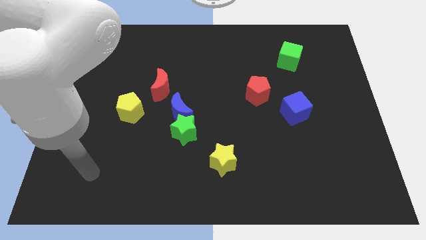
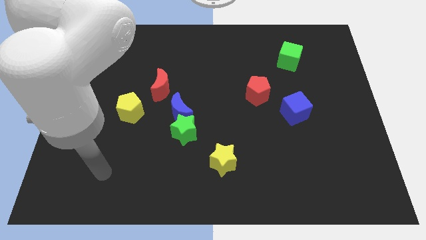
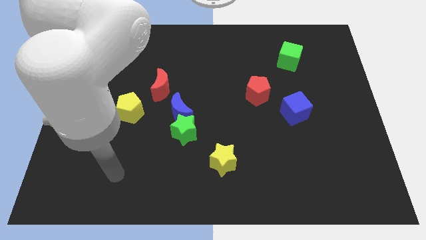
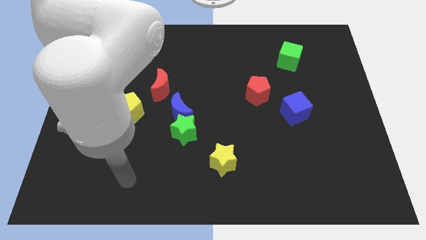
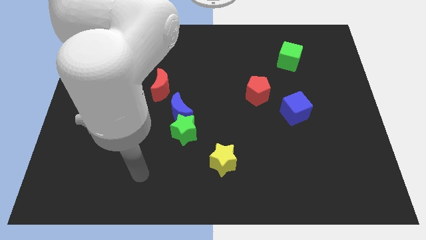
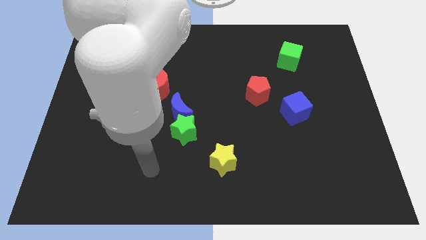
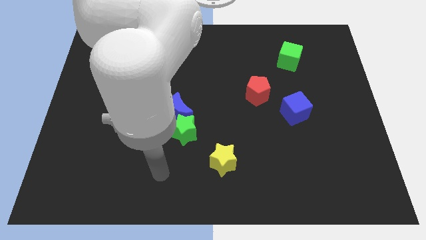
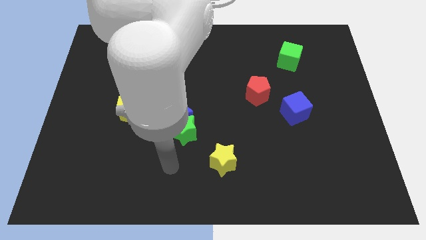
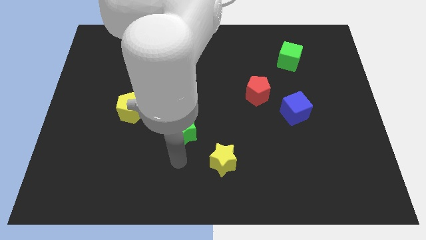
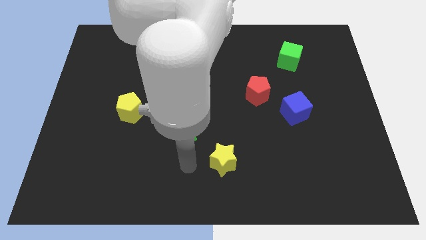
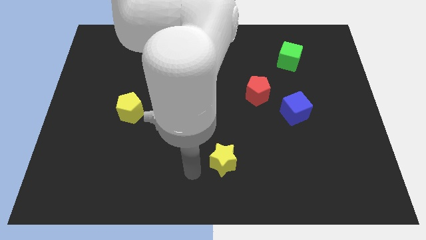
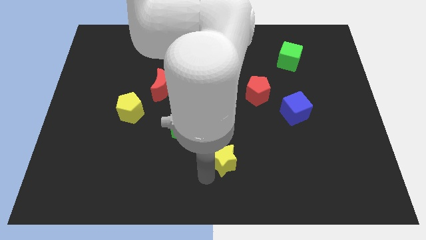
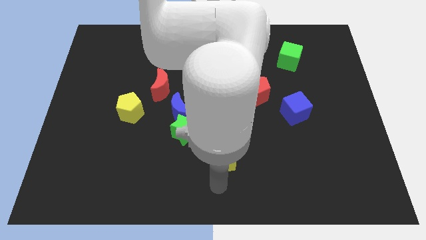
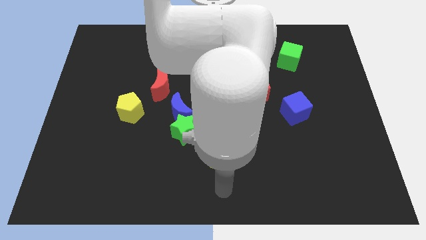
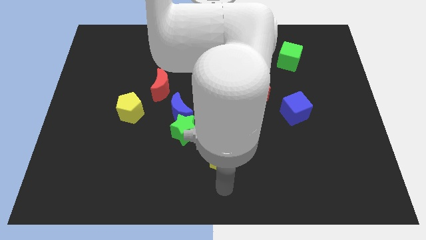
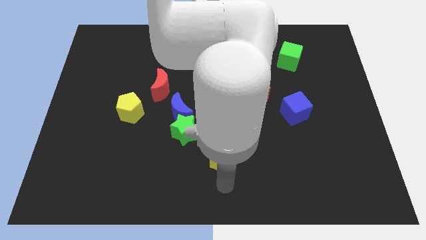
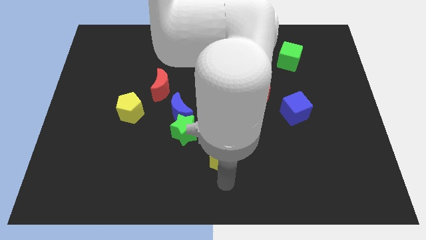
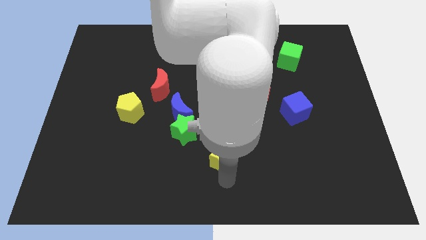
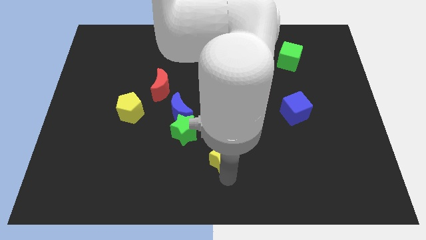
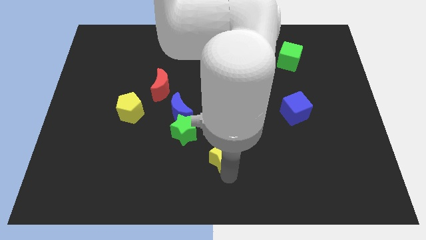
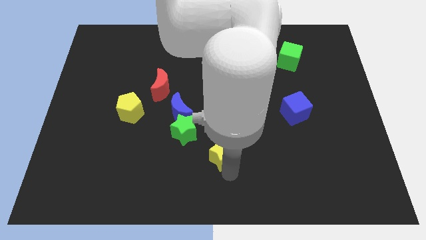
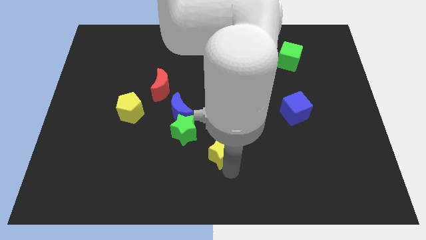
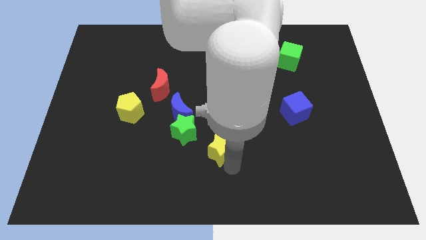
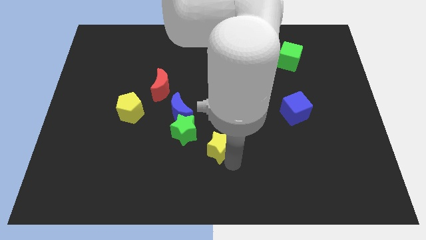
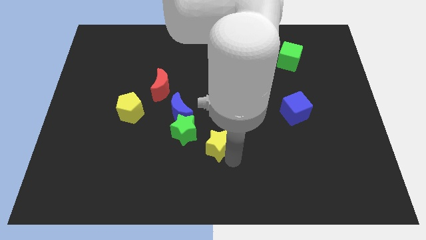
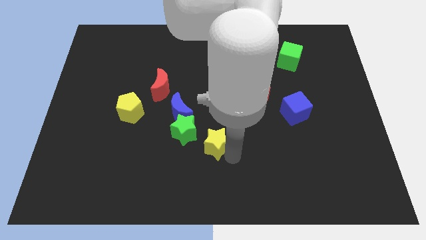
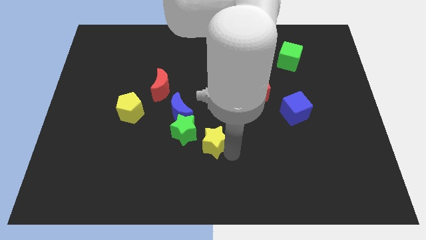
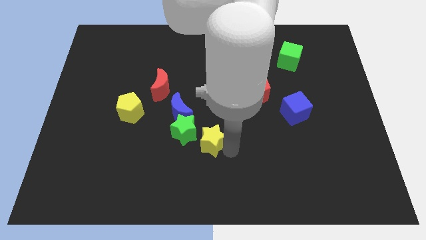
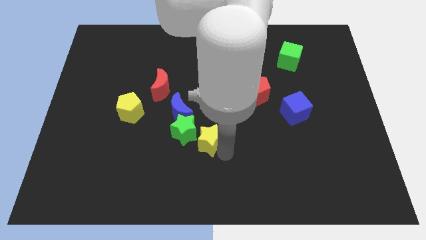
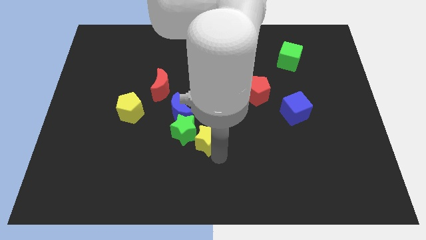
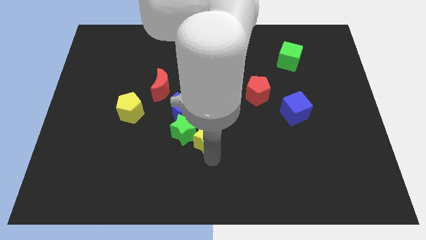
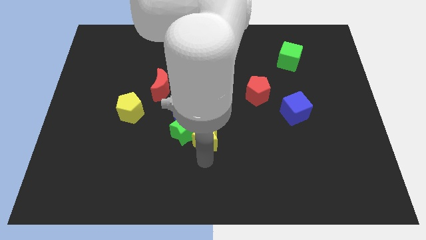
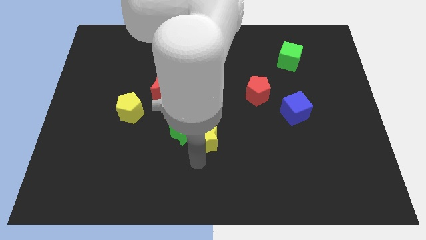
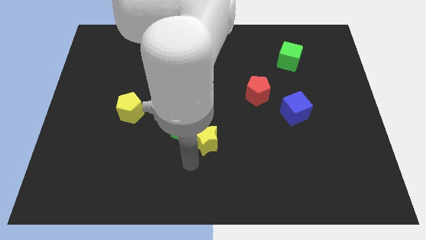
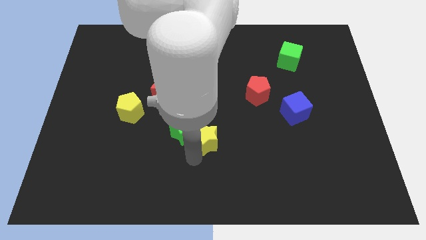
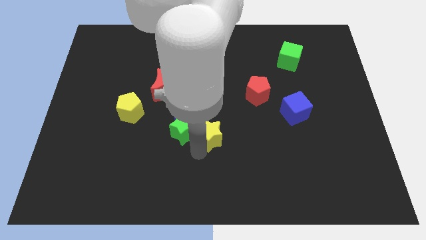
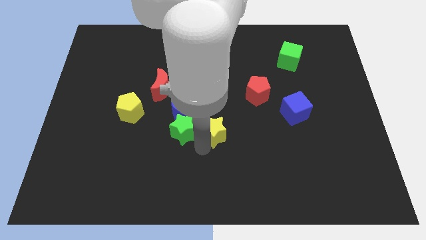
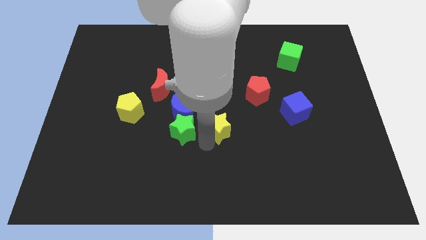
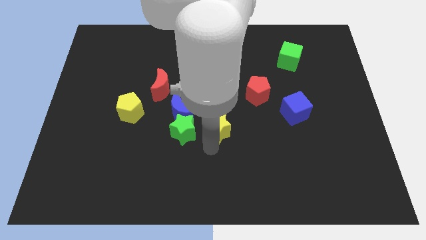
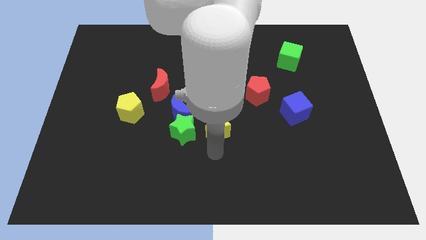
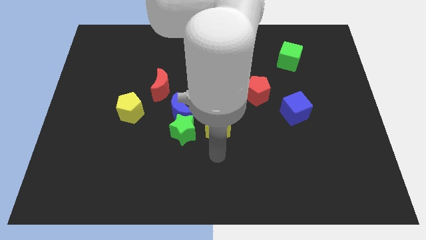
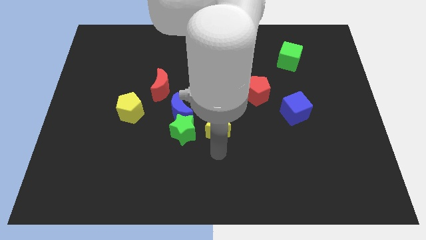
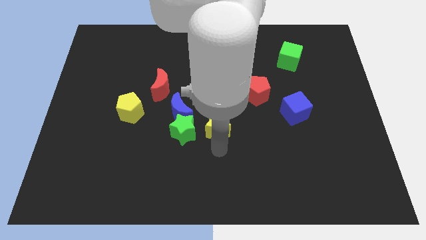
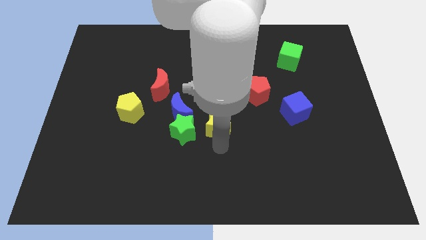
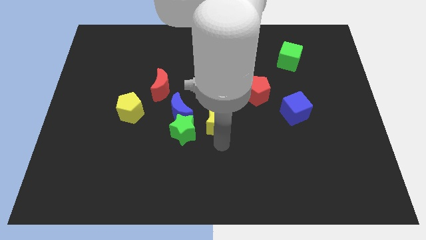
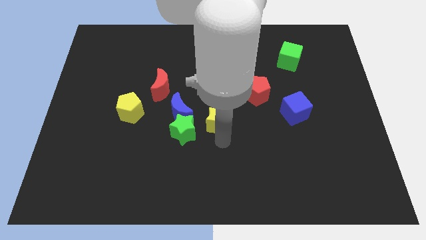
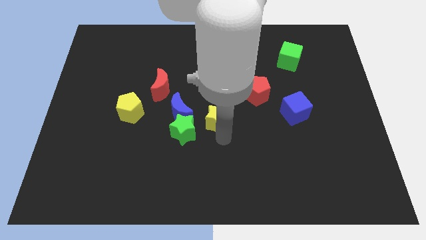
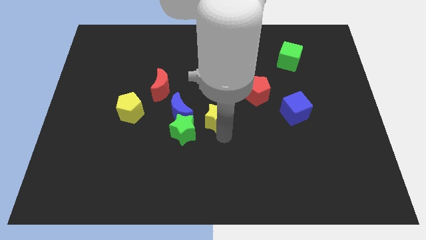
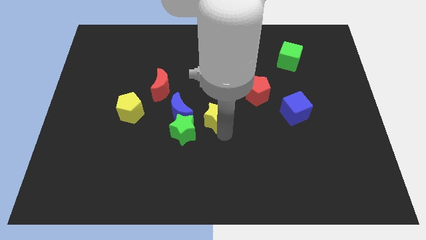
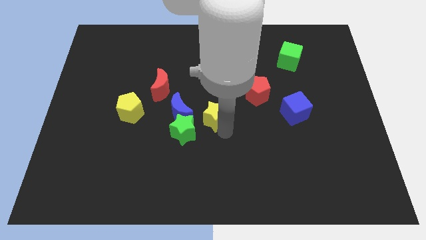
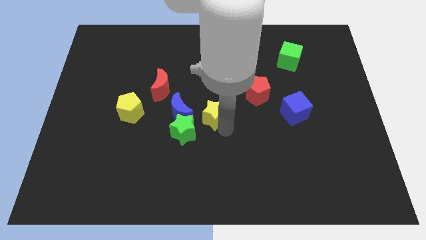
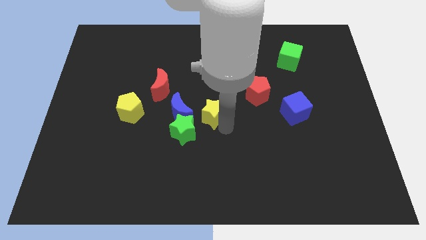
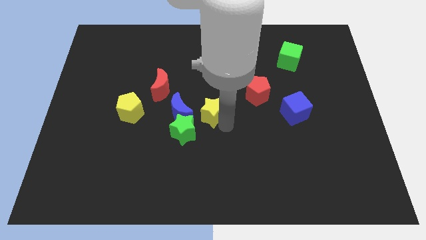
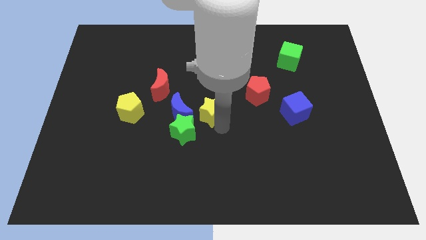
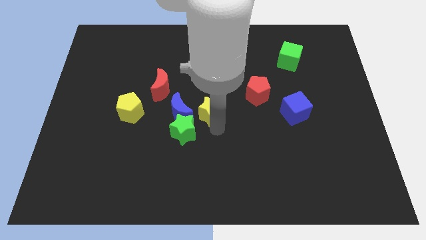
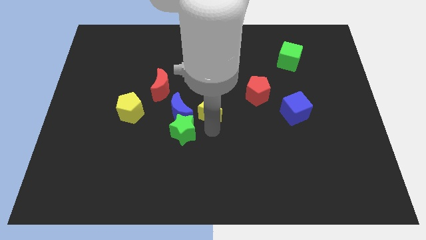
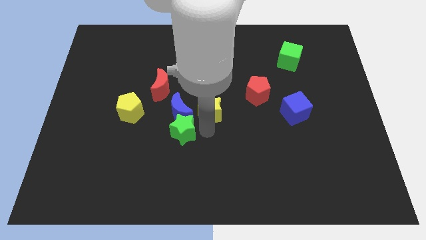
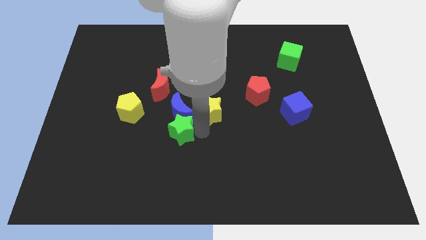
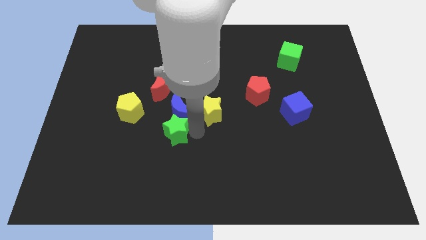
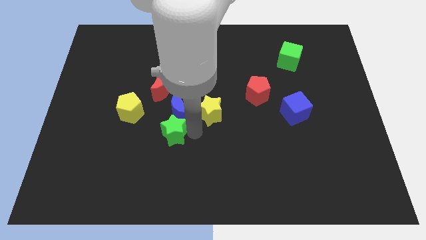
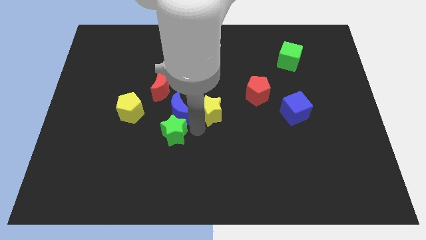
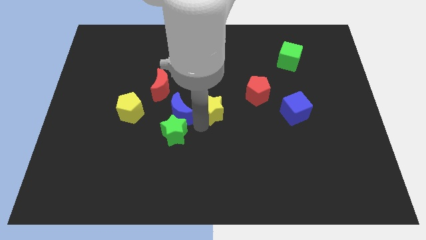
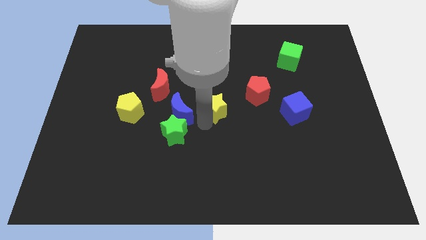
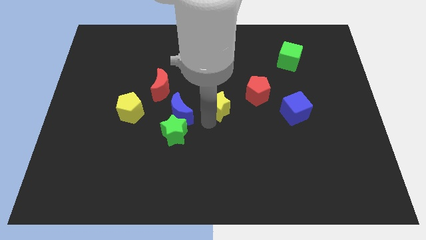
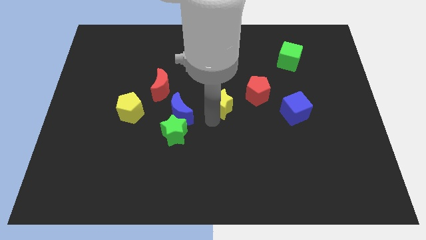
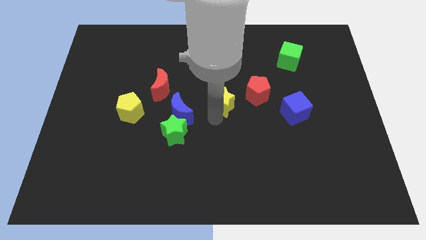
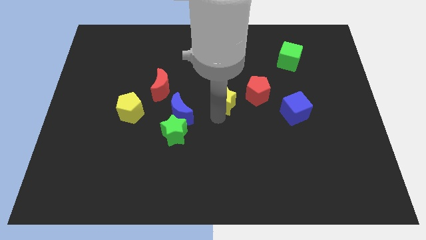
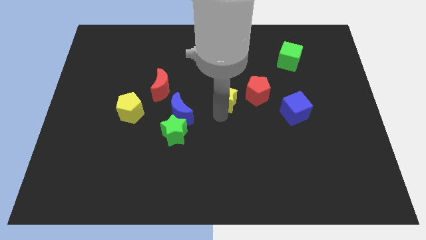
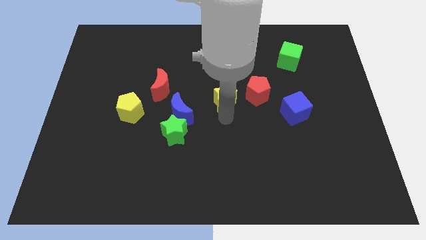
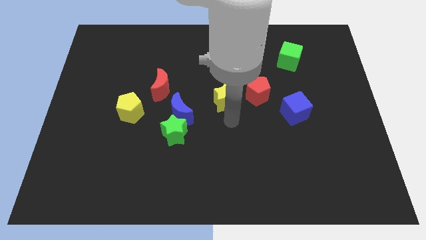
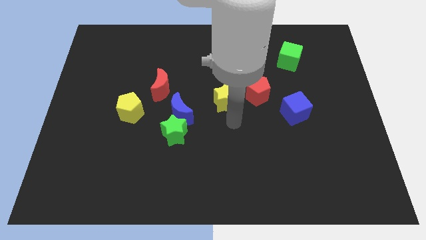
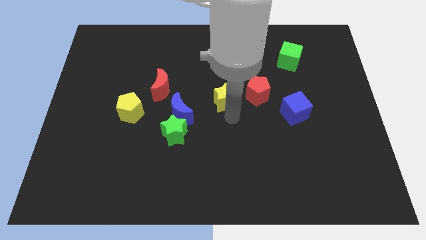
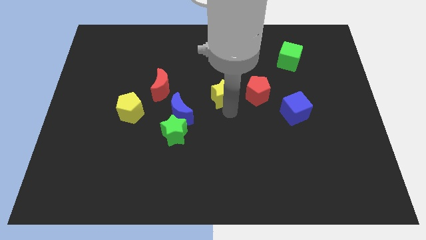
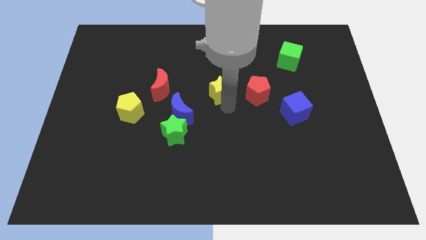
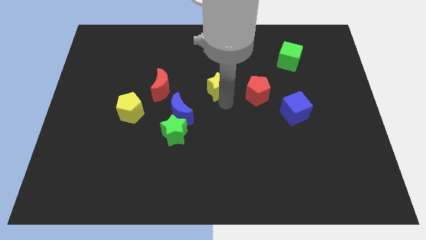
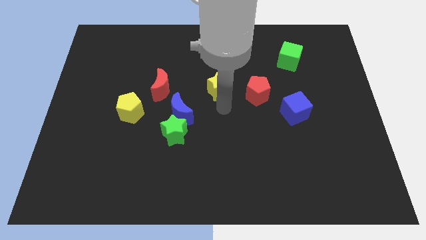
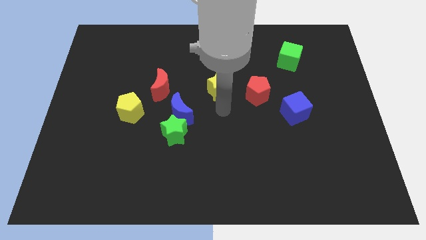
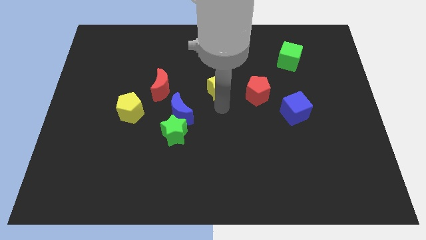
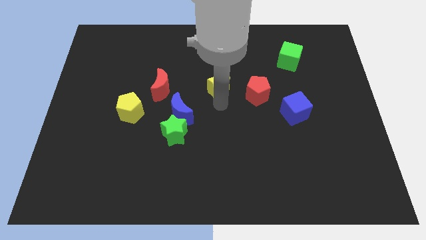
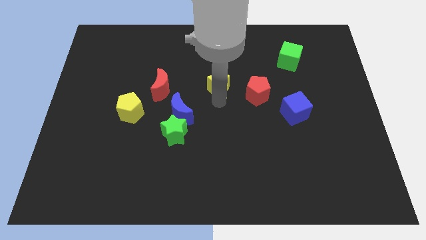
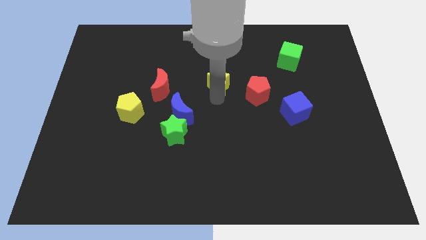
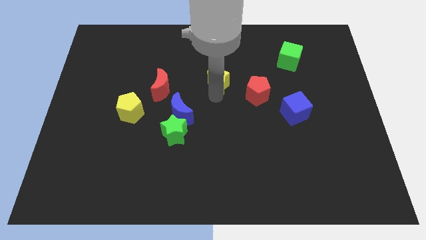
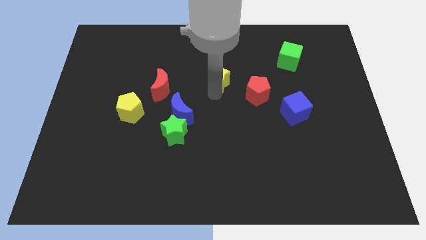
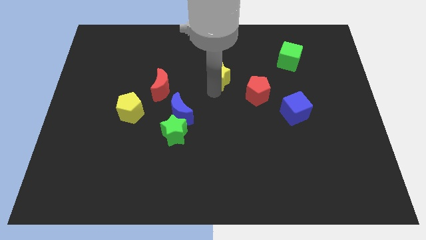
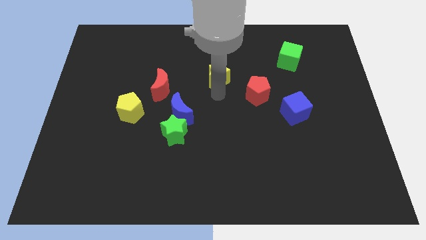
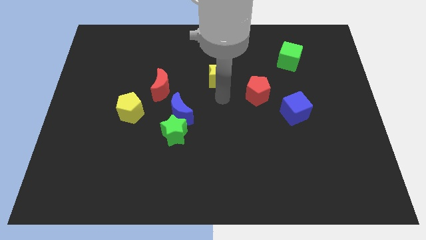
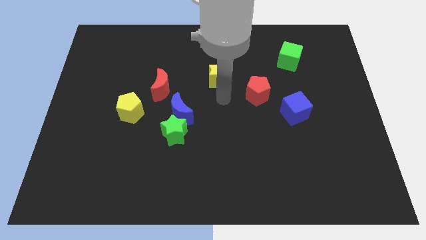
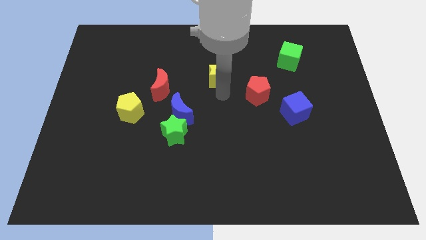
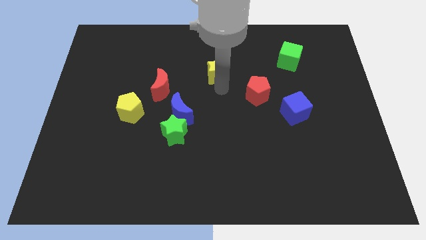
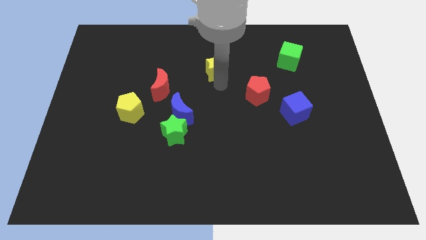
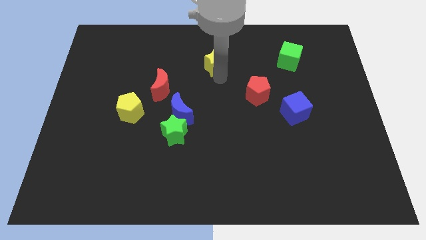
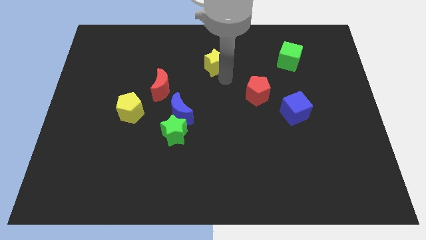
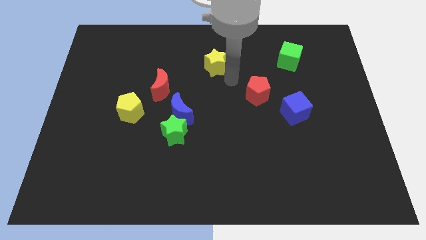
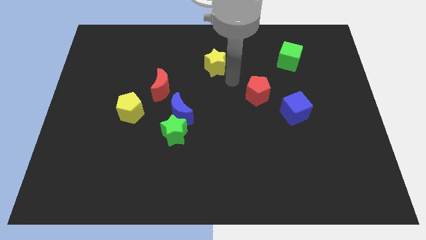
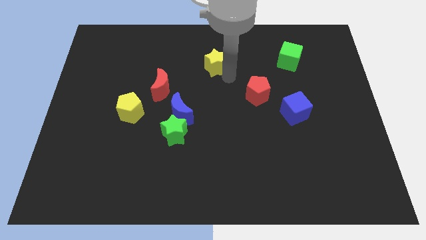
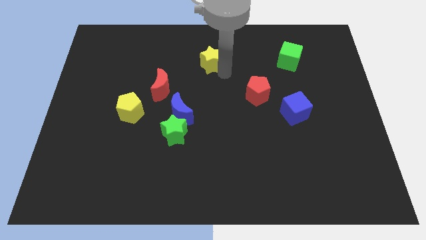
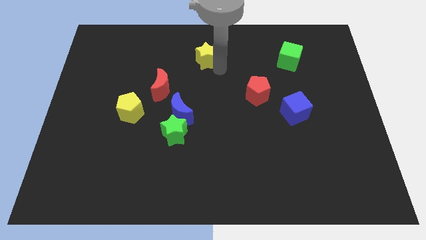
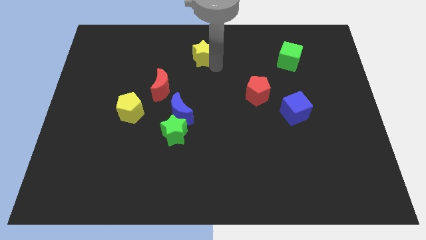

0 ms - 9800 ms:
push the yellow star to the top side
